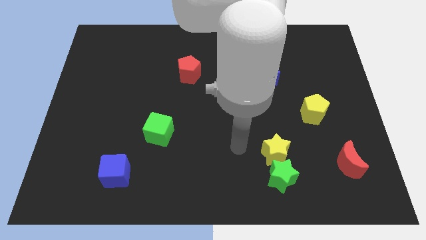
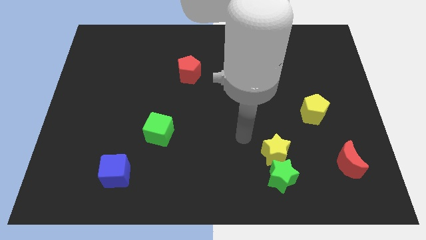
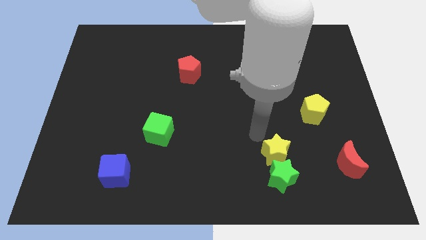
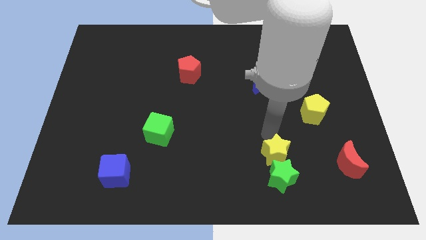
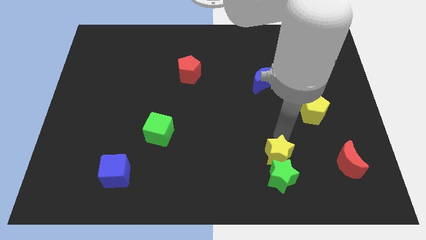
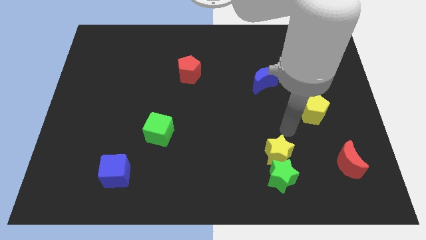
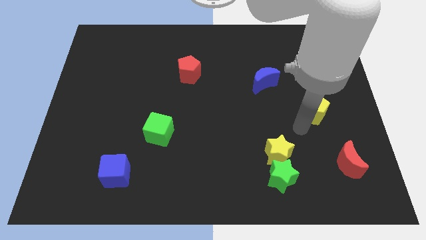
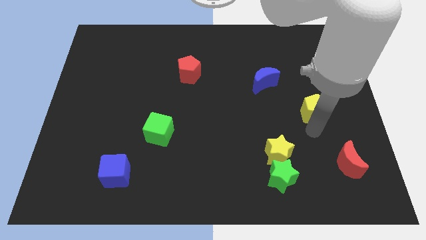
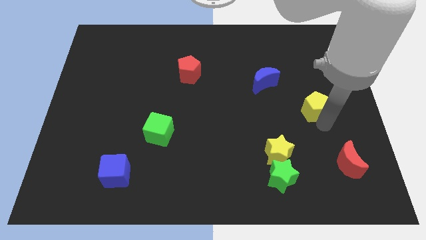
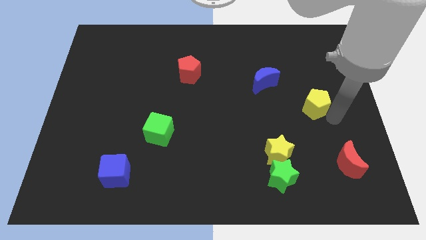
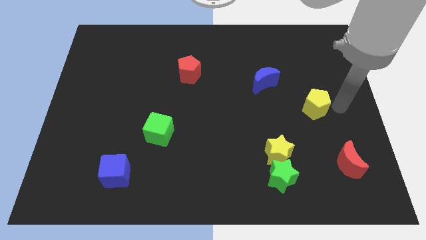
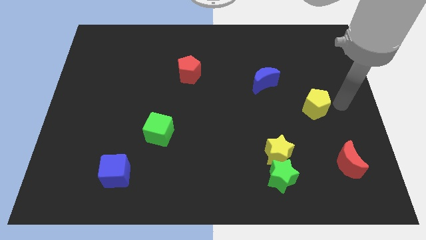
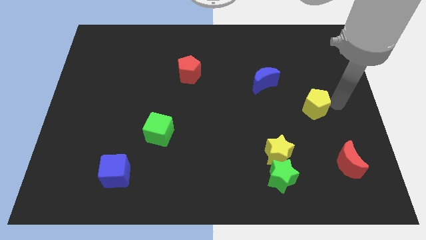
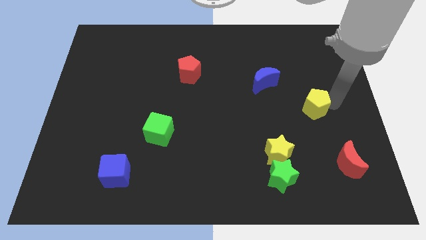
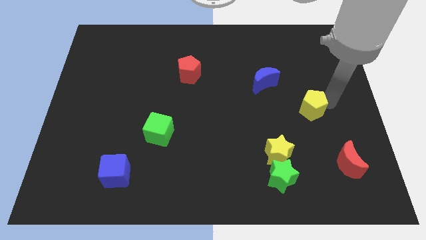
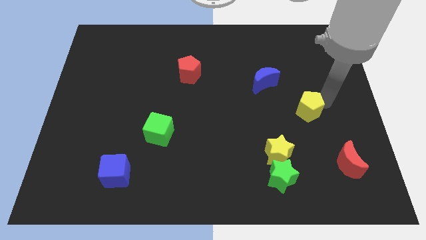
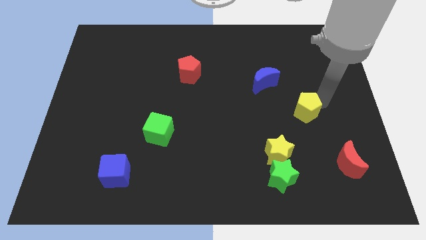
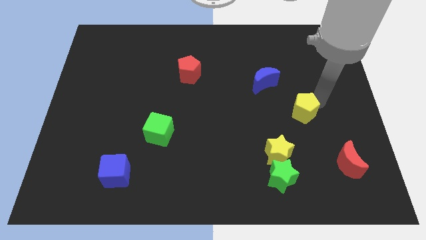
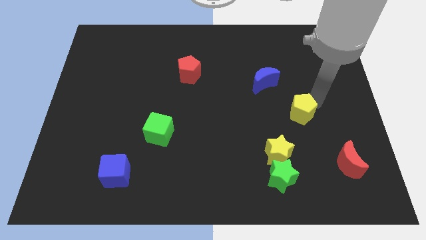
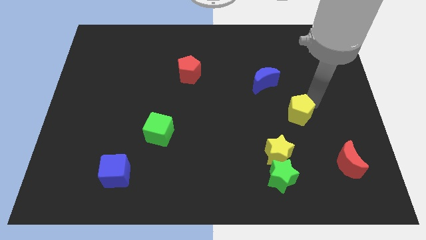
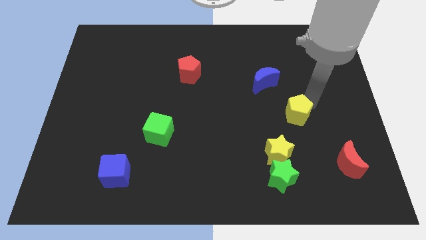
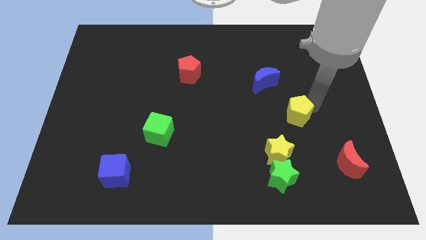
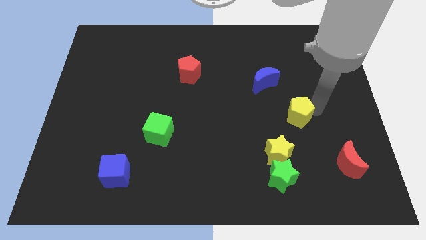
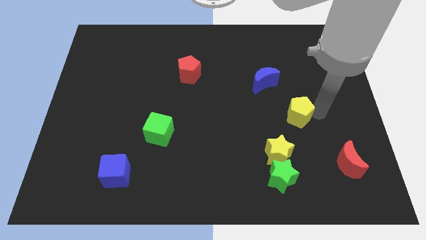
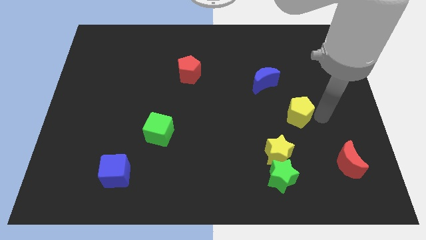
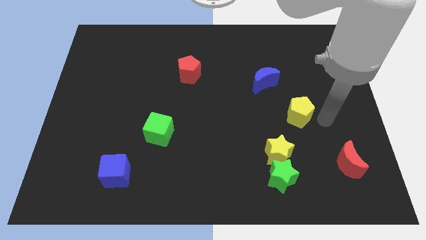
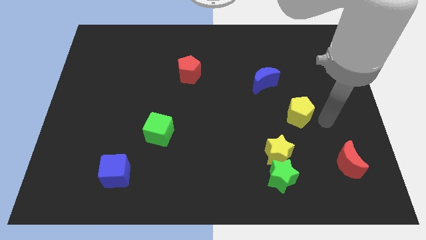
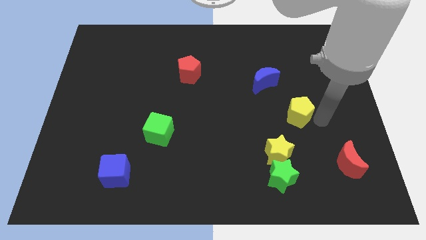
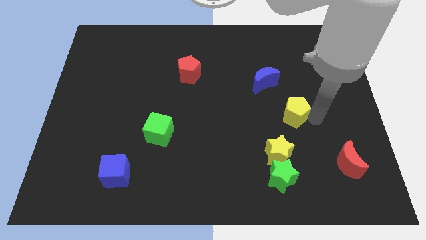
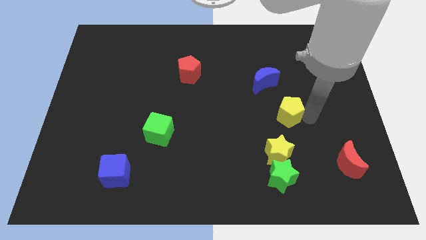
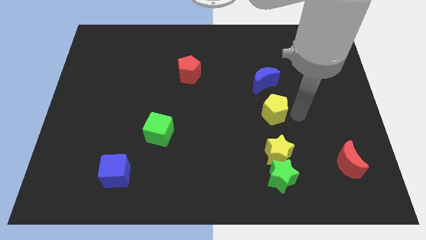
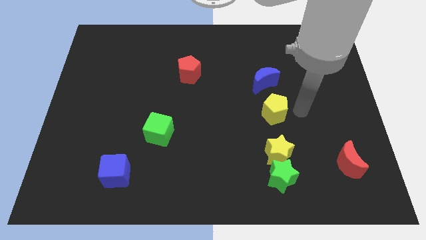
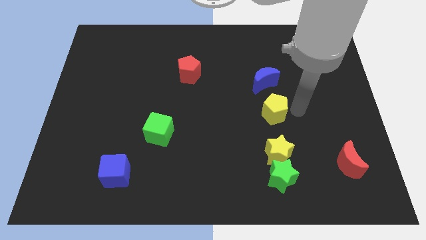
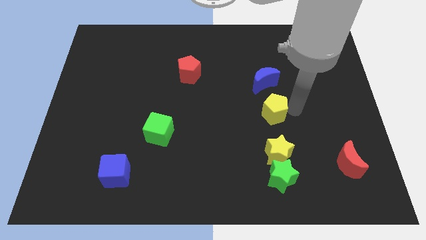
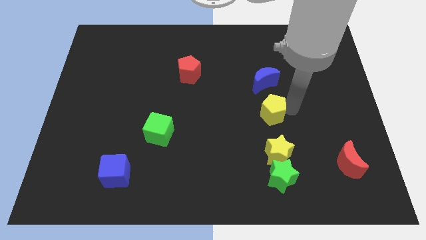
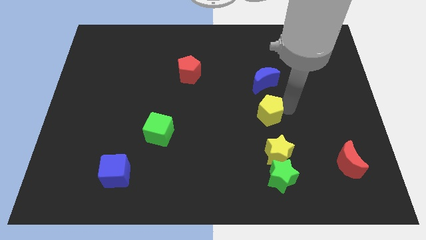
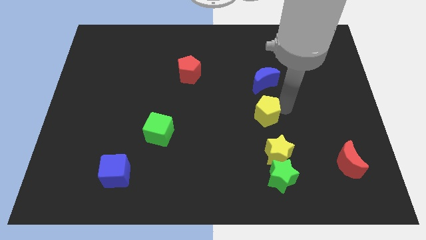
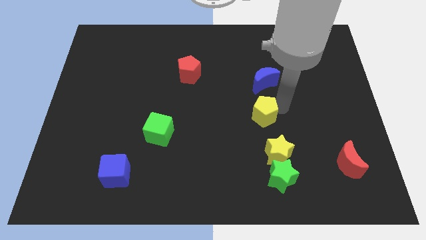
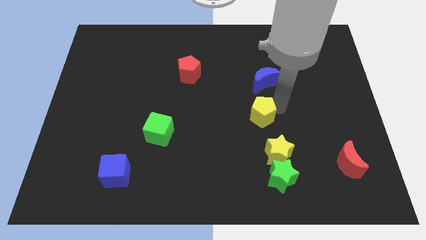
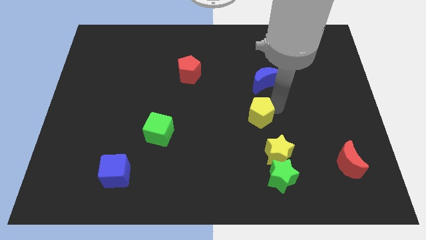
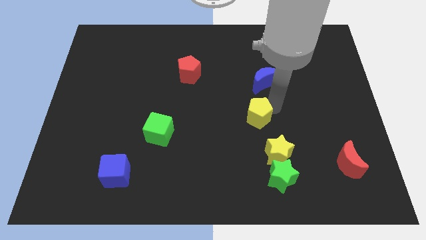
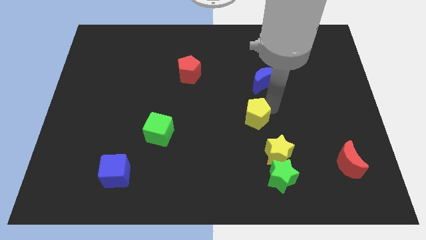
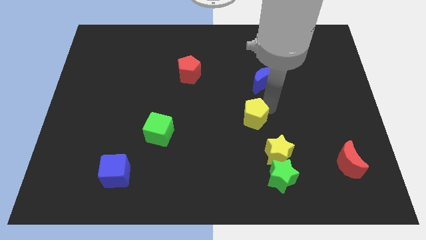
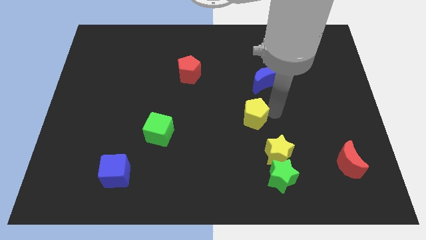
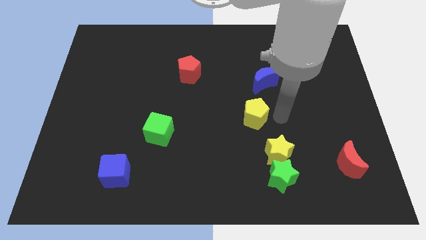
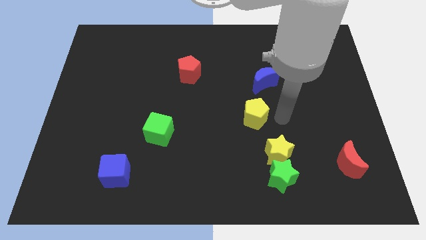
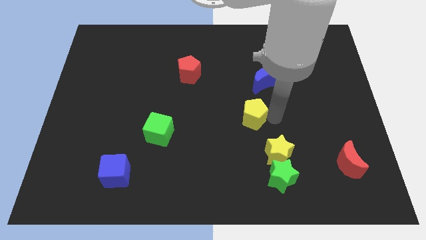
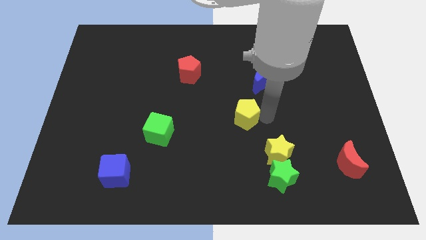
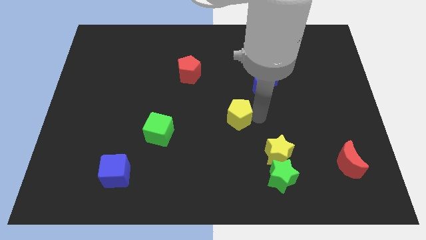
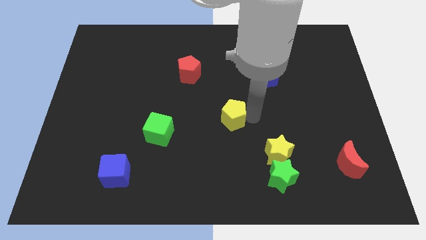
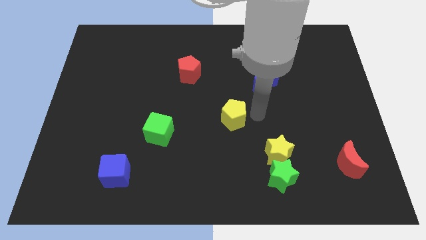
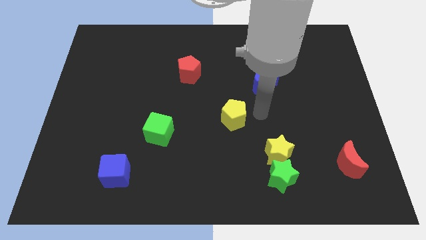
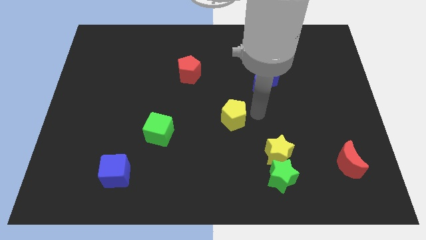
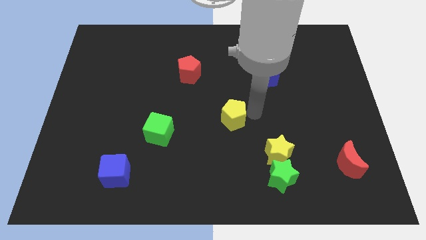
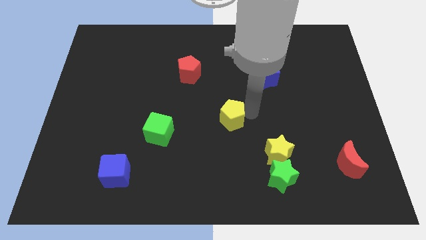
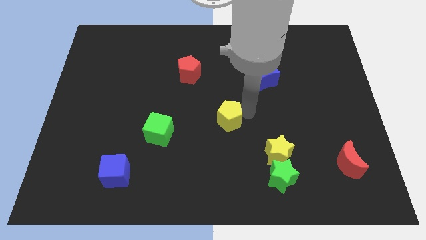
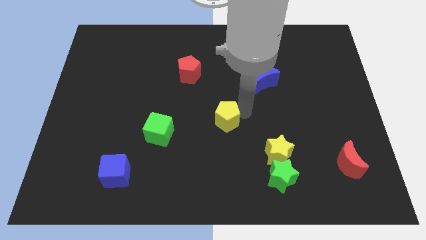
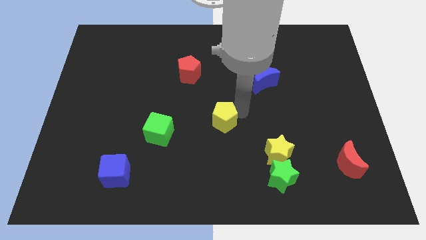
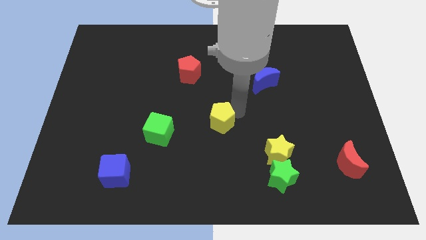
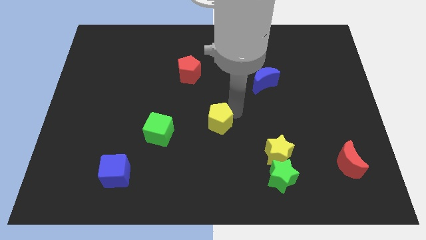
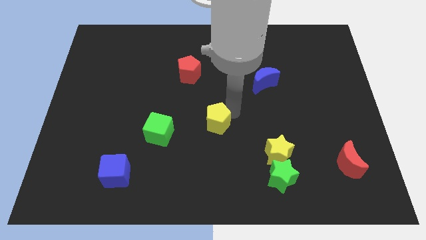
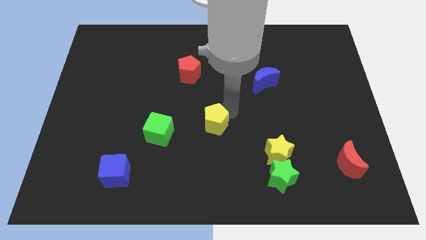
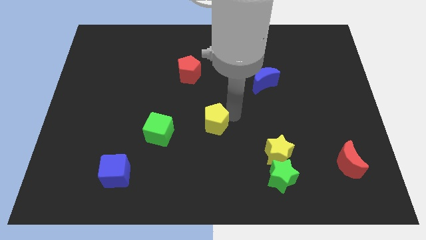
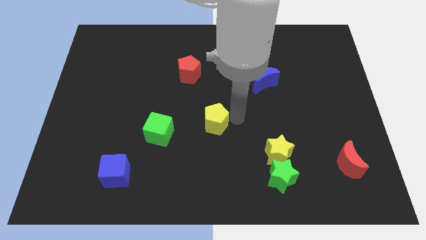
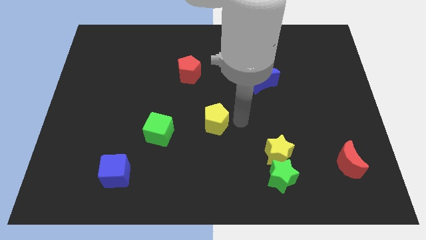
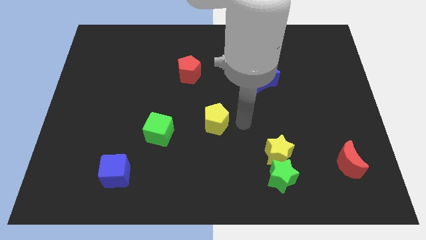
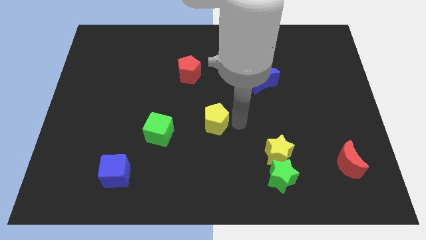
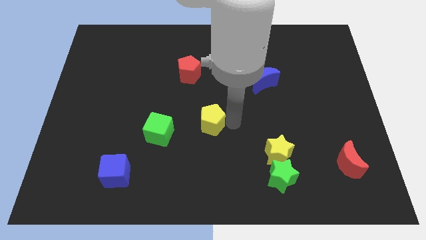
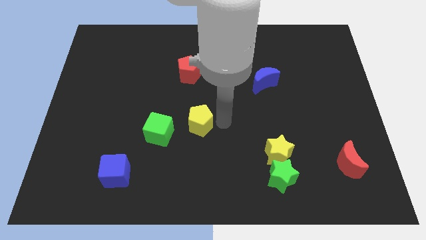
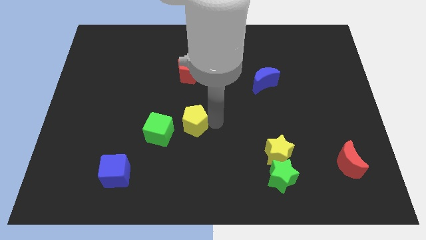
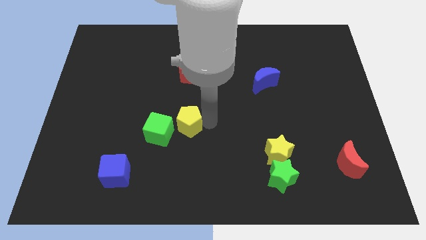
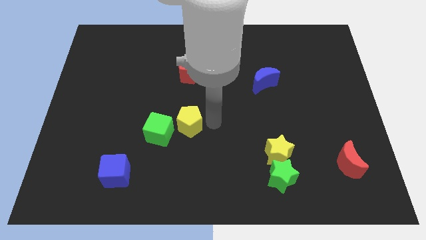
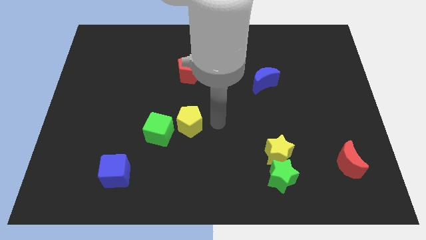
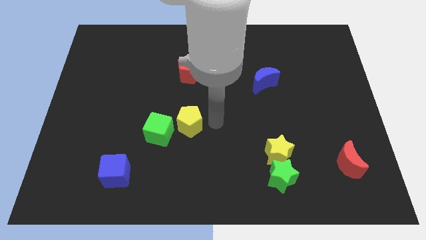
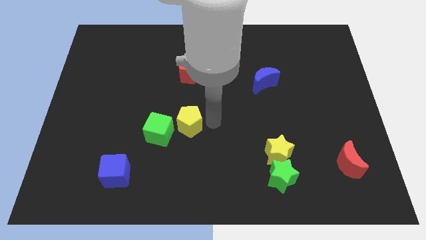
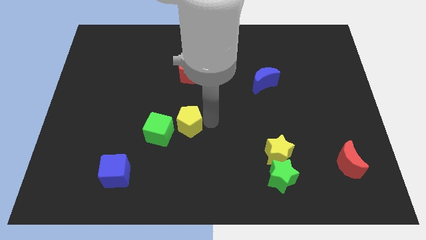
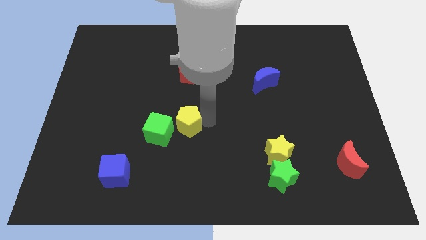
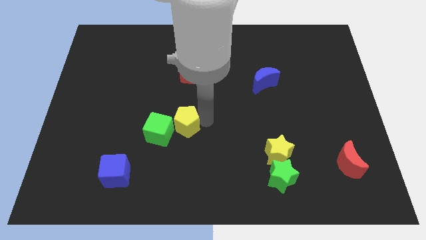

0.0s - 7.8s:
slide the yellow pentagon close to the green cube
